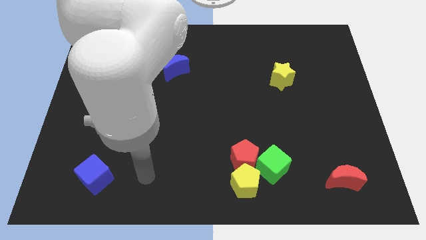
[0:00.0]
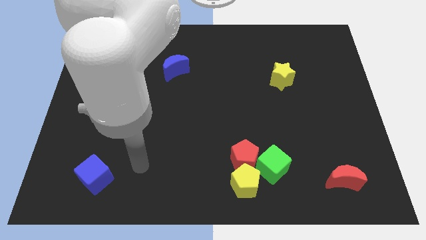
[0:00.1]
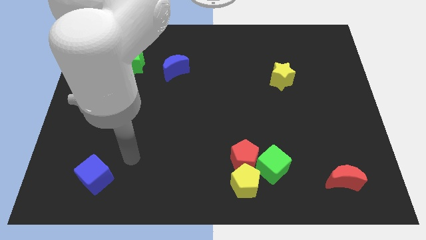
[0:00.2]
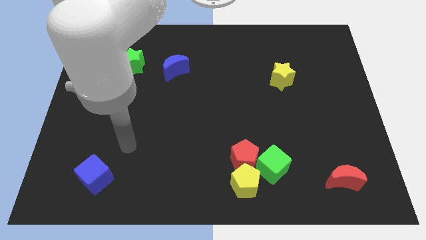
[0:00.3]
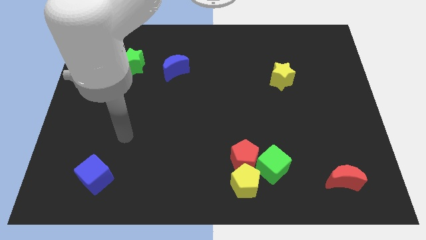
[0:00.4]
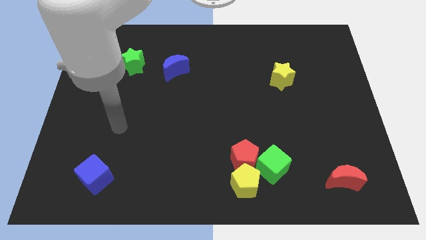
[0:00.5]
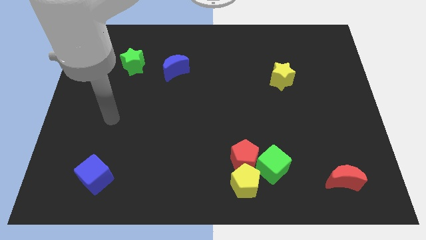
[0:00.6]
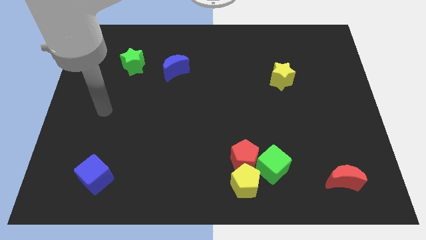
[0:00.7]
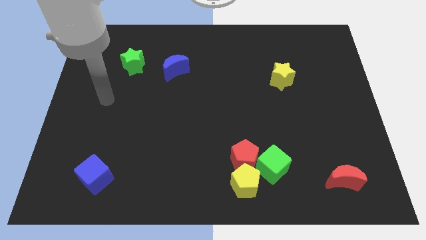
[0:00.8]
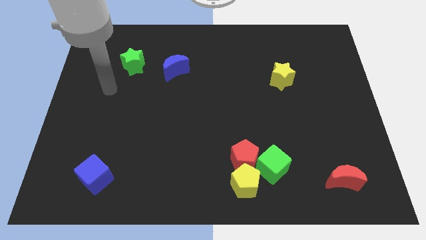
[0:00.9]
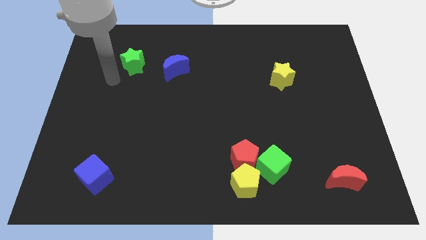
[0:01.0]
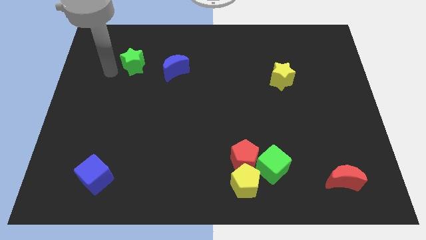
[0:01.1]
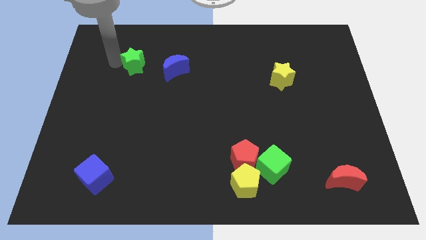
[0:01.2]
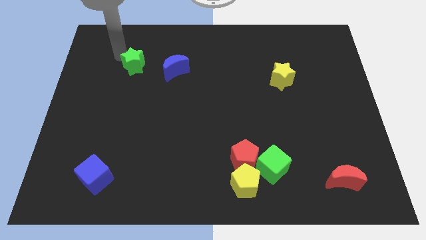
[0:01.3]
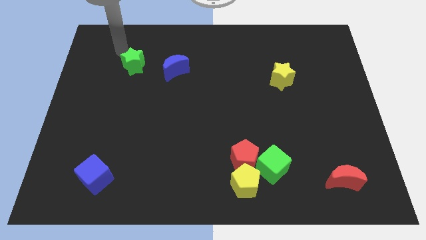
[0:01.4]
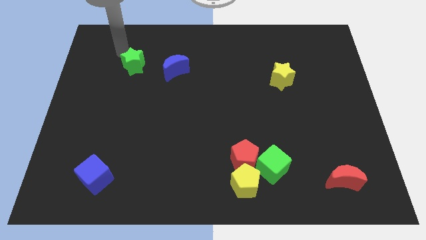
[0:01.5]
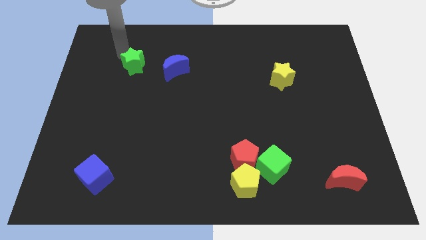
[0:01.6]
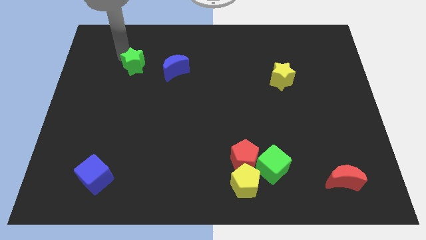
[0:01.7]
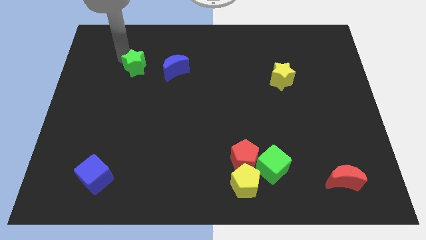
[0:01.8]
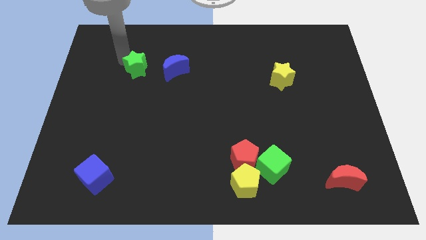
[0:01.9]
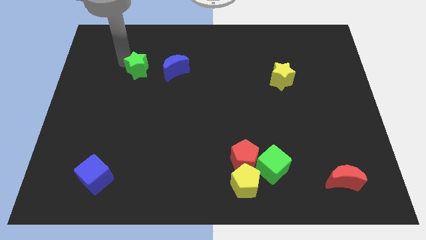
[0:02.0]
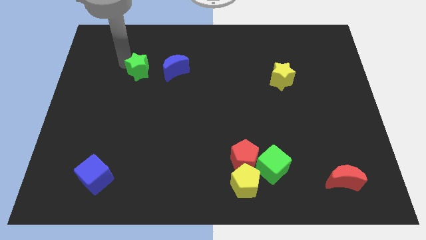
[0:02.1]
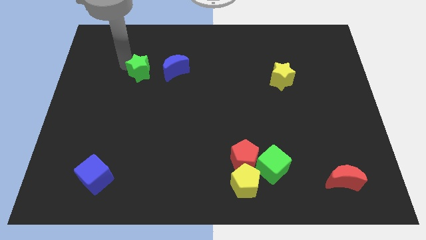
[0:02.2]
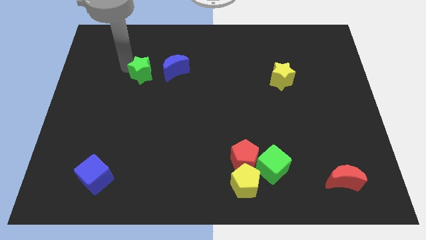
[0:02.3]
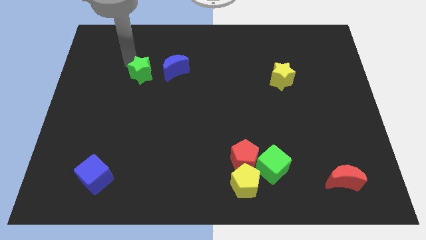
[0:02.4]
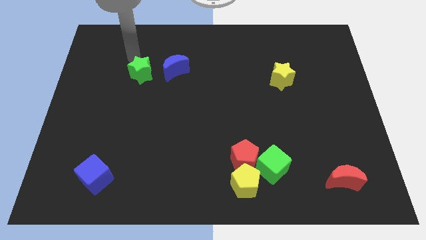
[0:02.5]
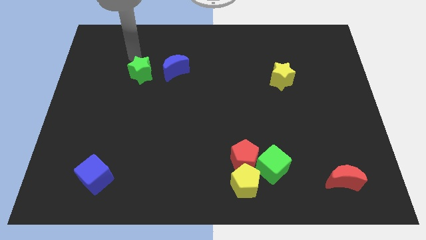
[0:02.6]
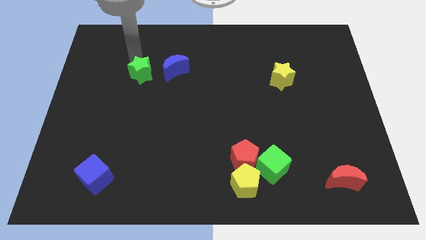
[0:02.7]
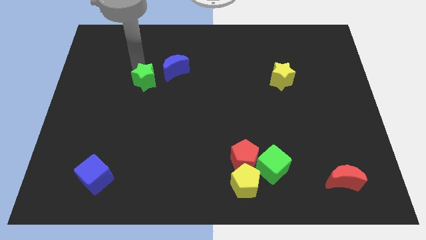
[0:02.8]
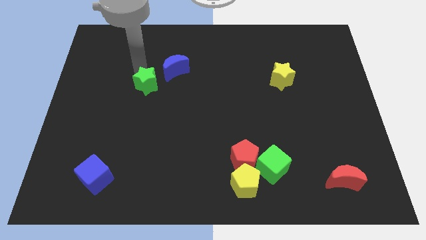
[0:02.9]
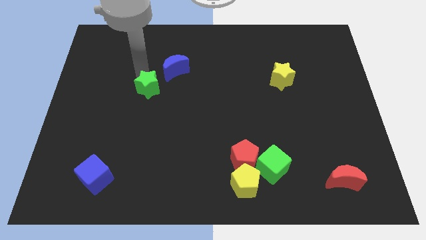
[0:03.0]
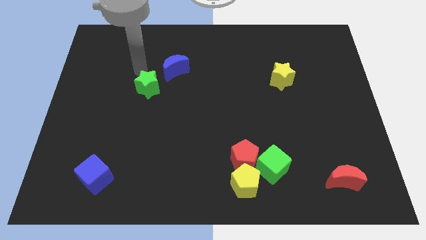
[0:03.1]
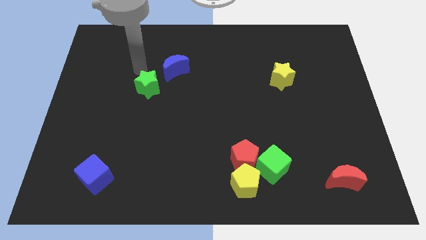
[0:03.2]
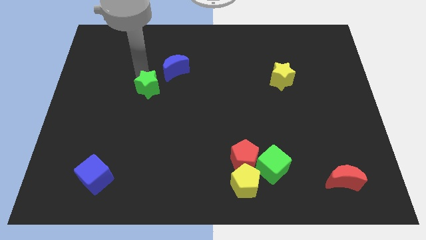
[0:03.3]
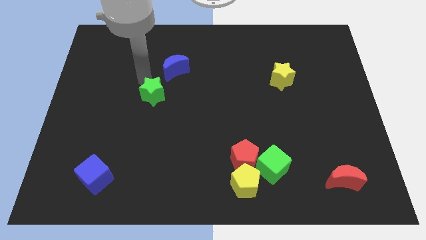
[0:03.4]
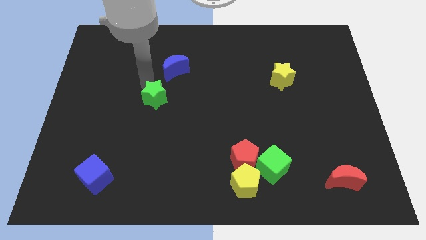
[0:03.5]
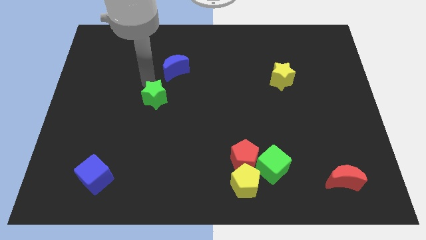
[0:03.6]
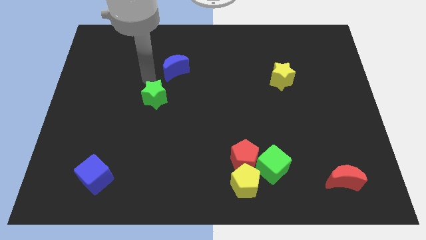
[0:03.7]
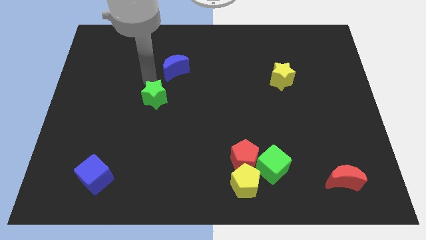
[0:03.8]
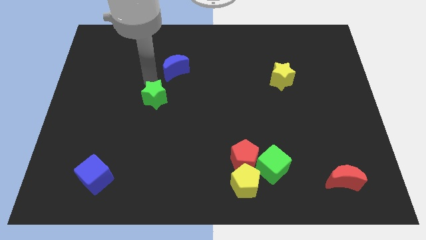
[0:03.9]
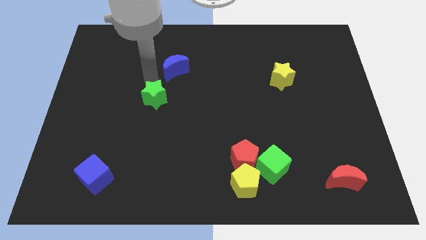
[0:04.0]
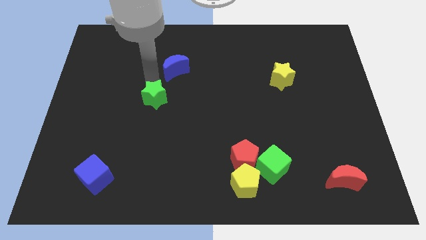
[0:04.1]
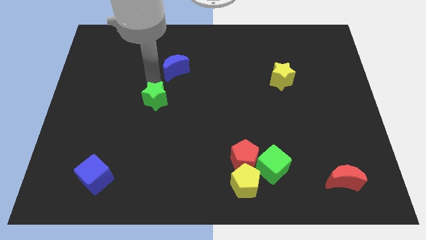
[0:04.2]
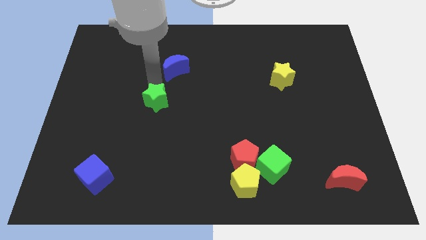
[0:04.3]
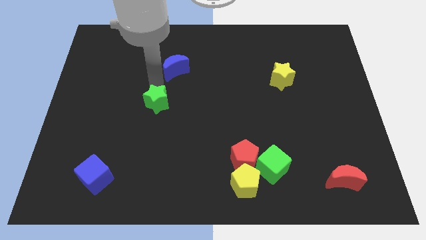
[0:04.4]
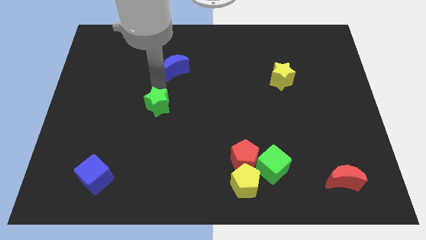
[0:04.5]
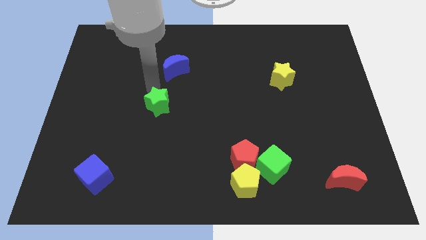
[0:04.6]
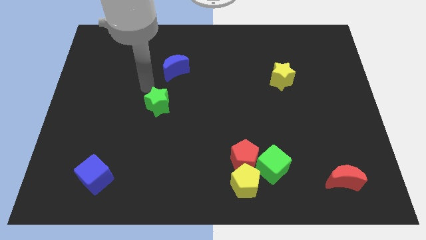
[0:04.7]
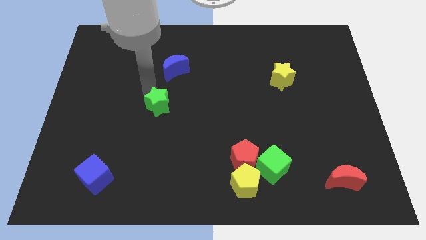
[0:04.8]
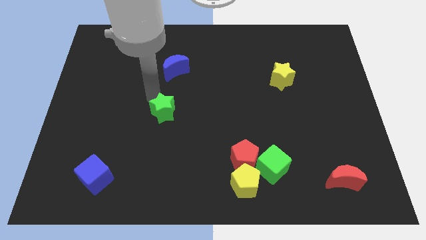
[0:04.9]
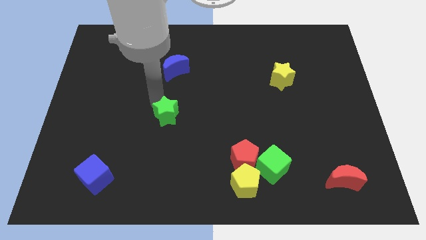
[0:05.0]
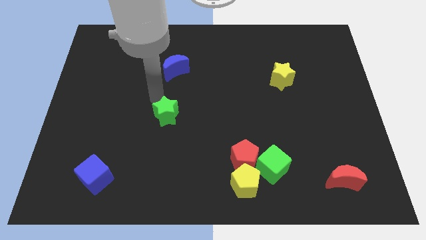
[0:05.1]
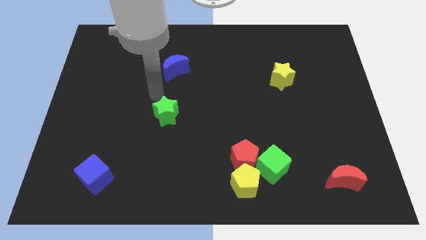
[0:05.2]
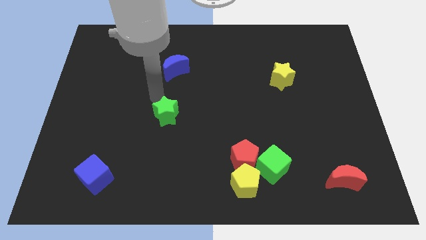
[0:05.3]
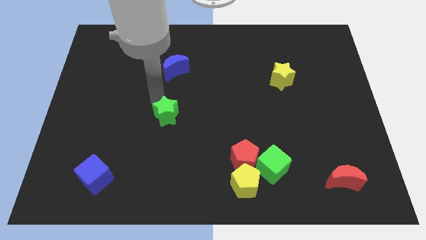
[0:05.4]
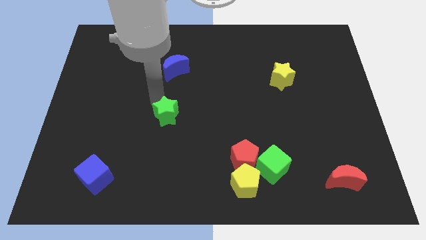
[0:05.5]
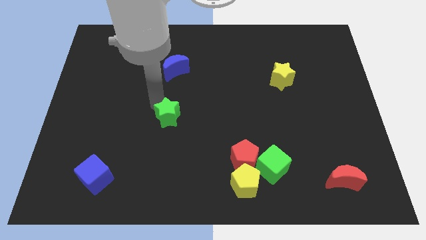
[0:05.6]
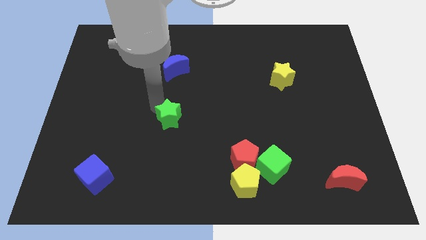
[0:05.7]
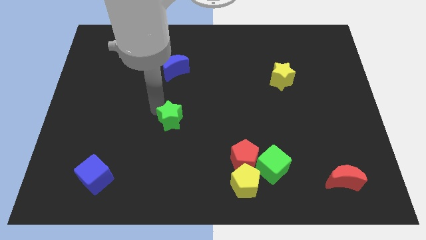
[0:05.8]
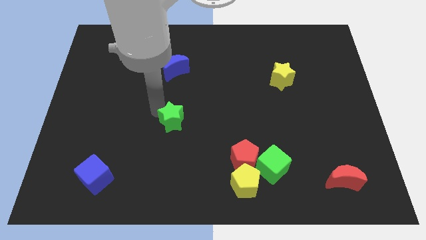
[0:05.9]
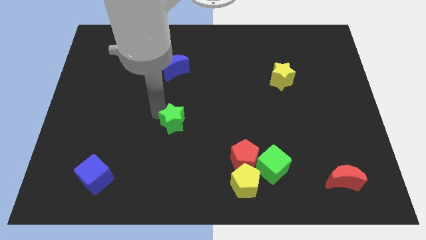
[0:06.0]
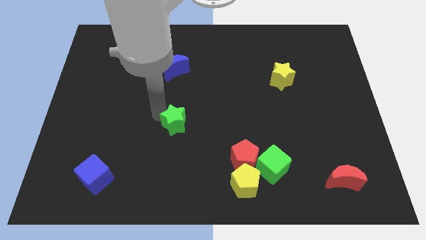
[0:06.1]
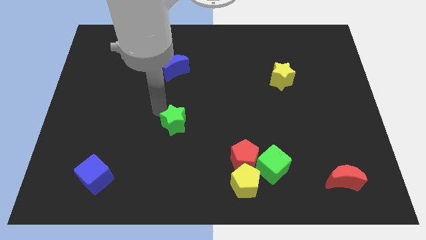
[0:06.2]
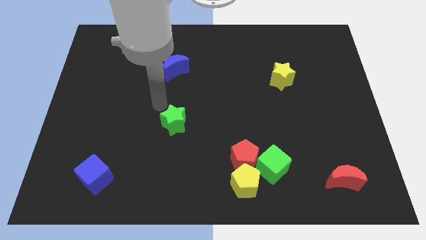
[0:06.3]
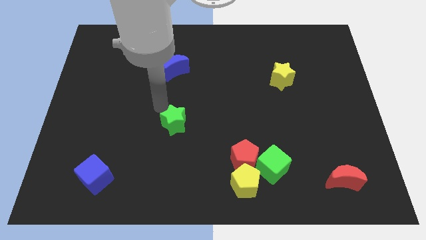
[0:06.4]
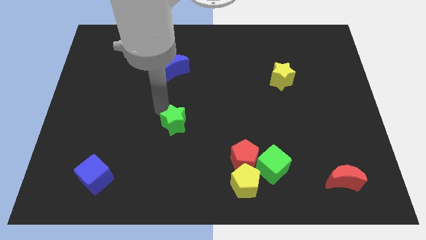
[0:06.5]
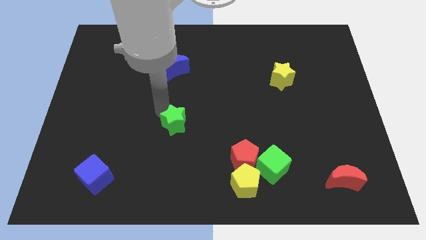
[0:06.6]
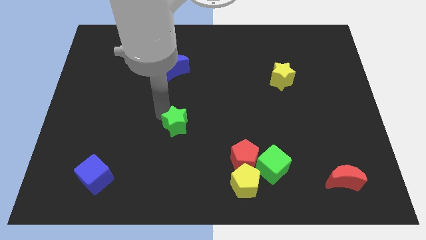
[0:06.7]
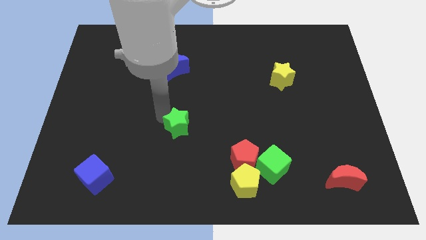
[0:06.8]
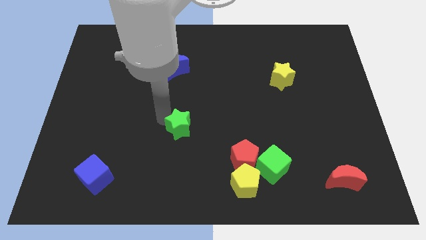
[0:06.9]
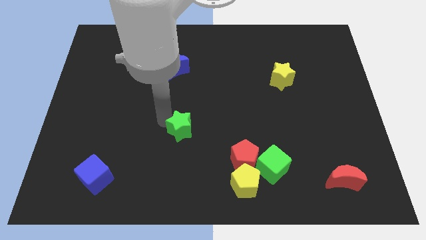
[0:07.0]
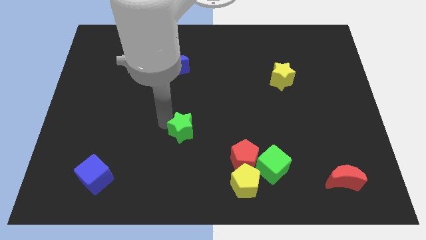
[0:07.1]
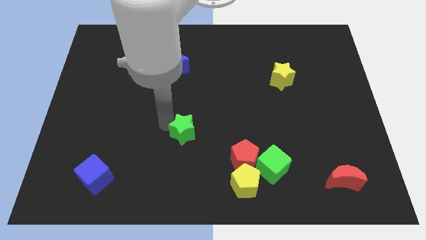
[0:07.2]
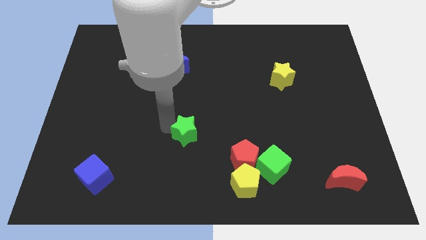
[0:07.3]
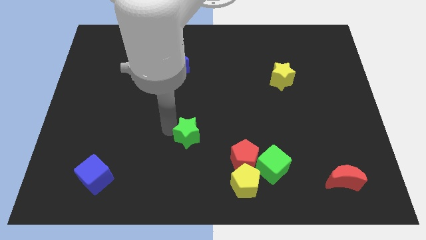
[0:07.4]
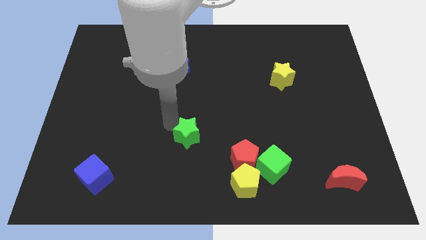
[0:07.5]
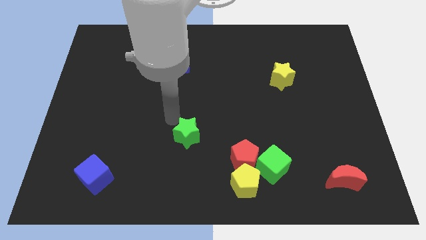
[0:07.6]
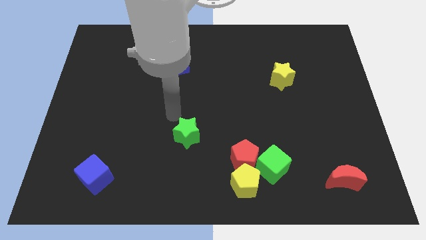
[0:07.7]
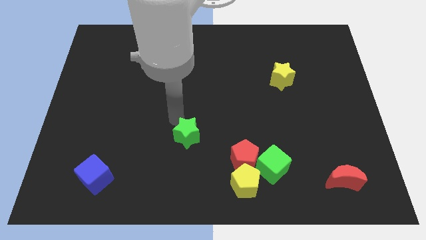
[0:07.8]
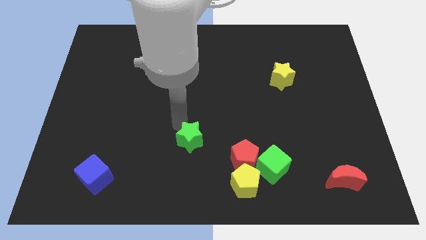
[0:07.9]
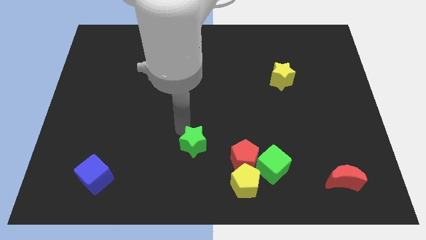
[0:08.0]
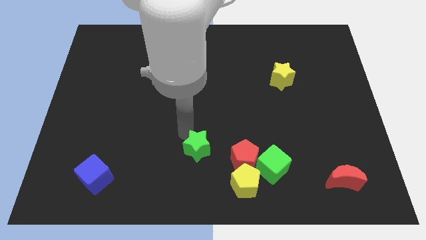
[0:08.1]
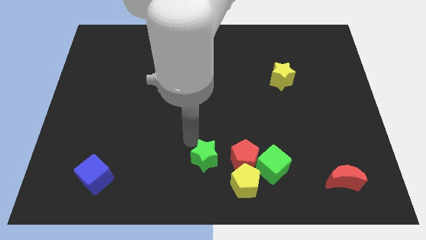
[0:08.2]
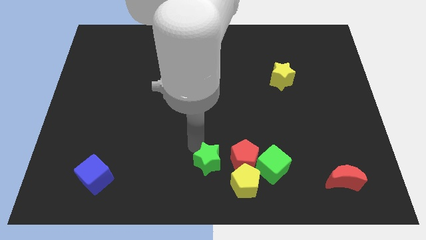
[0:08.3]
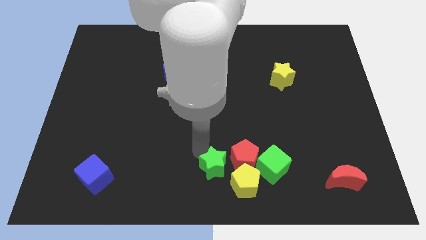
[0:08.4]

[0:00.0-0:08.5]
move the green star to the bottom left of the red pentagon
